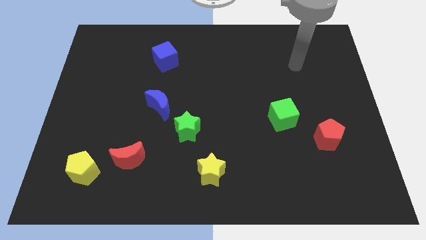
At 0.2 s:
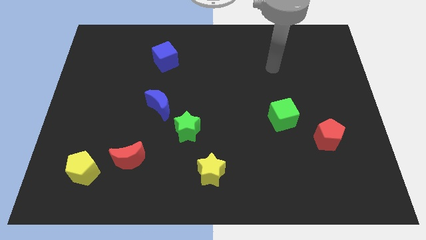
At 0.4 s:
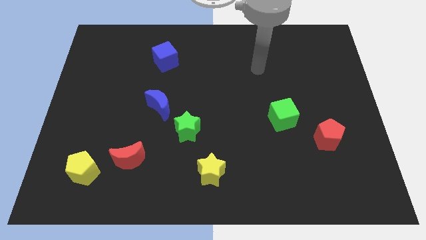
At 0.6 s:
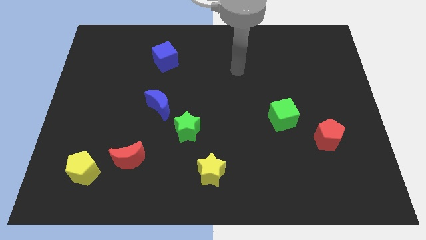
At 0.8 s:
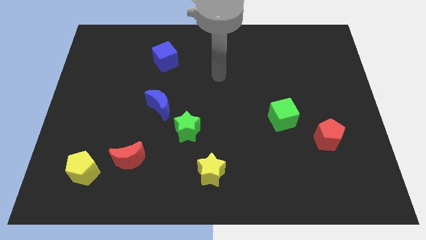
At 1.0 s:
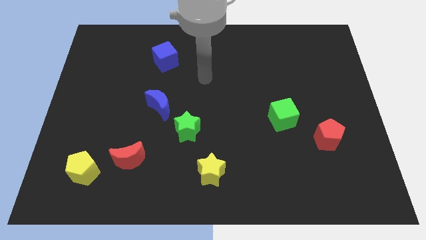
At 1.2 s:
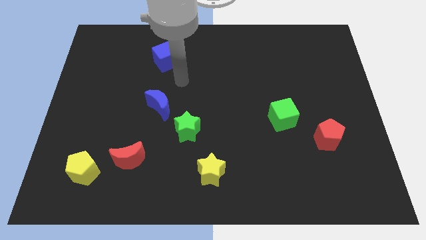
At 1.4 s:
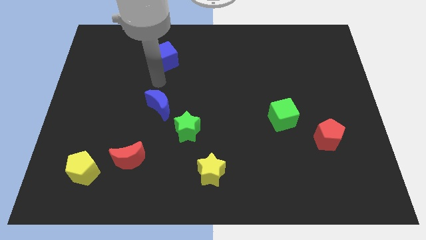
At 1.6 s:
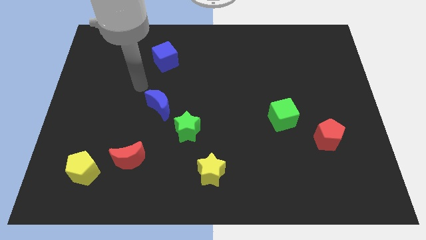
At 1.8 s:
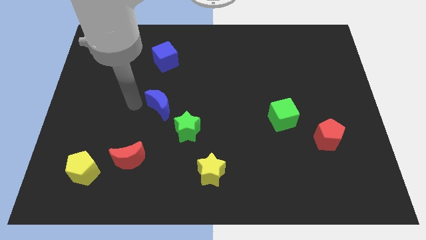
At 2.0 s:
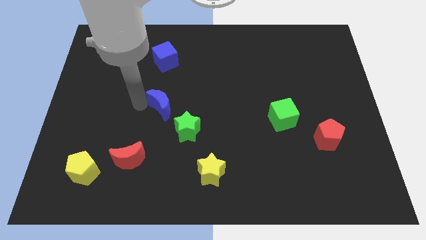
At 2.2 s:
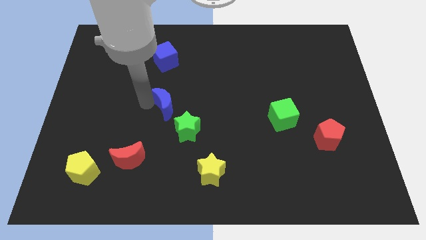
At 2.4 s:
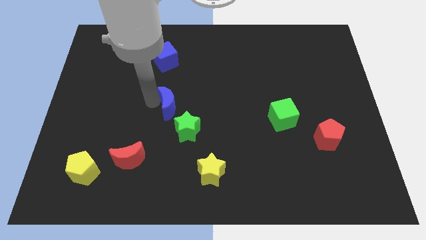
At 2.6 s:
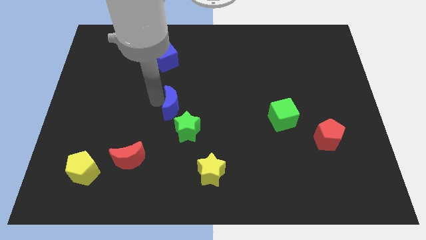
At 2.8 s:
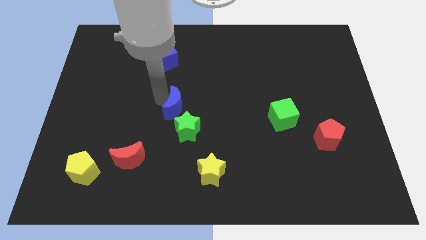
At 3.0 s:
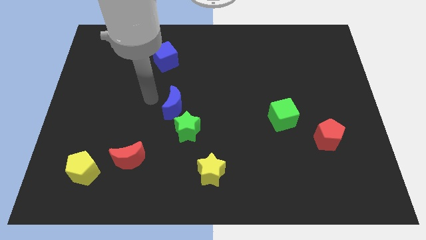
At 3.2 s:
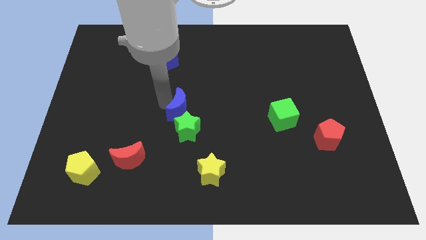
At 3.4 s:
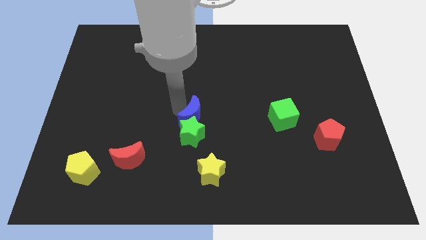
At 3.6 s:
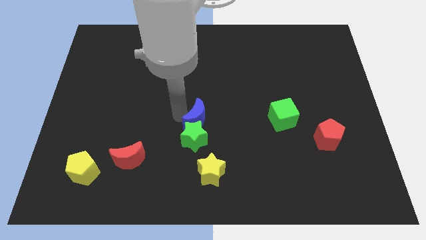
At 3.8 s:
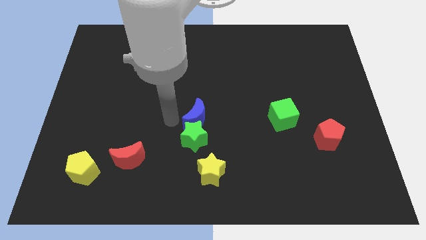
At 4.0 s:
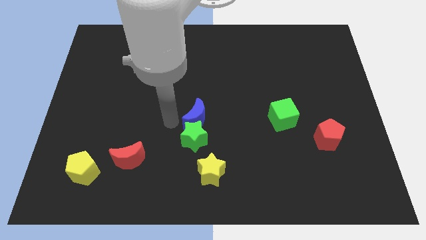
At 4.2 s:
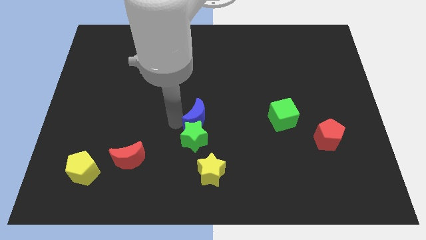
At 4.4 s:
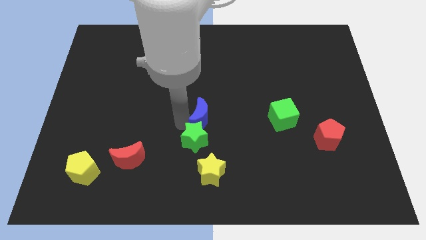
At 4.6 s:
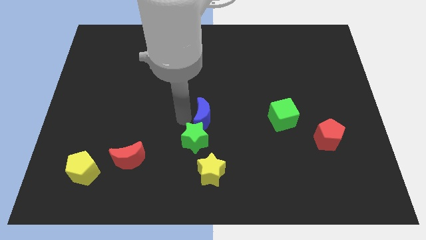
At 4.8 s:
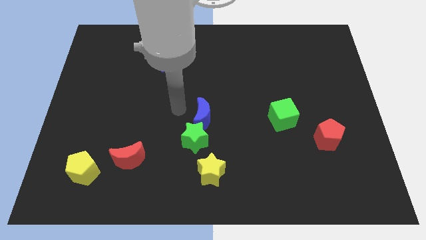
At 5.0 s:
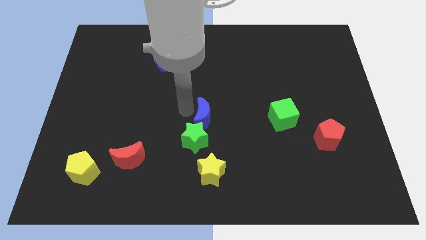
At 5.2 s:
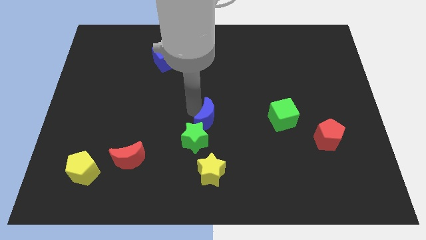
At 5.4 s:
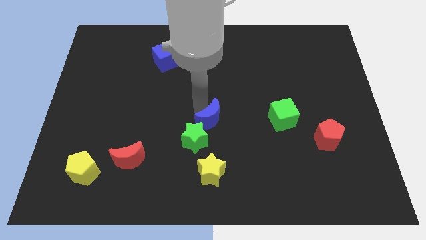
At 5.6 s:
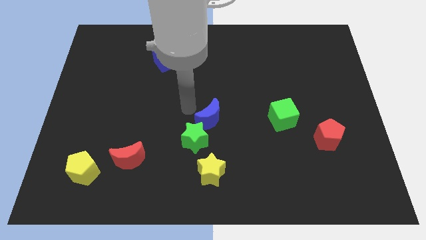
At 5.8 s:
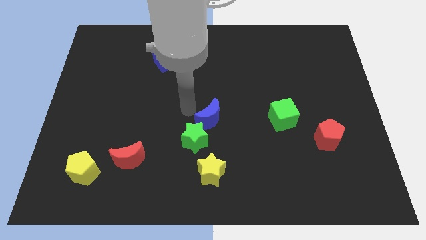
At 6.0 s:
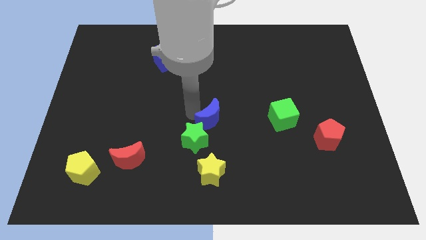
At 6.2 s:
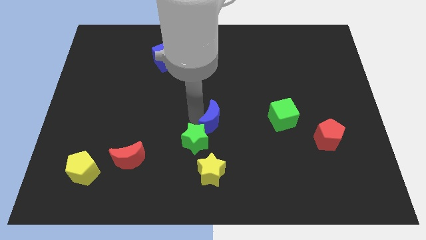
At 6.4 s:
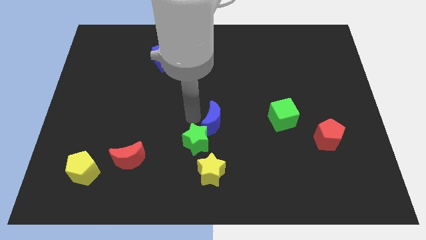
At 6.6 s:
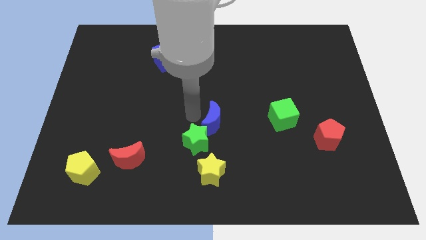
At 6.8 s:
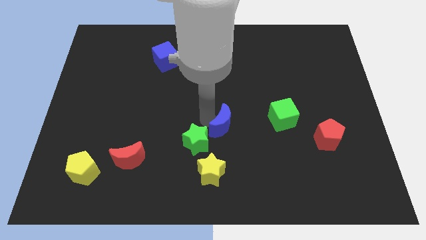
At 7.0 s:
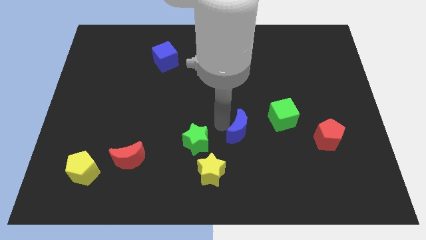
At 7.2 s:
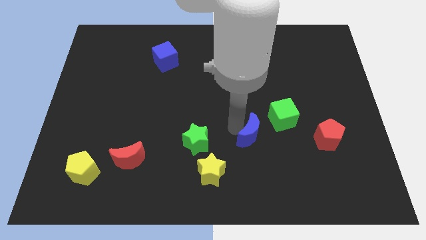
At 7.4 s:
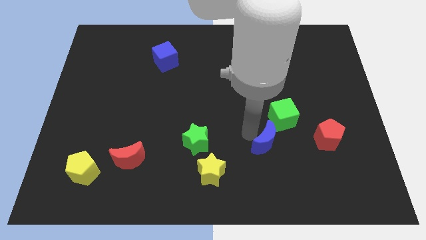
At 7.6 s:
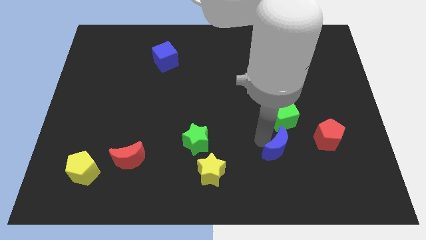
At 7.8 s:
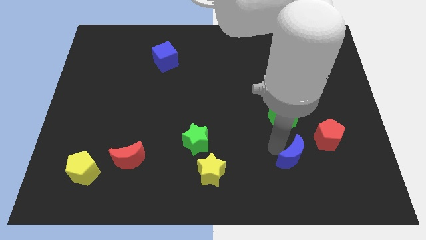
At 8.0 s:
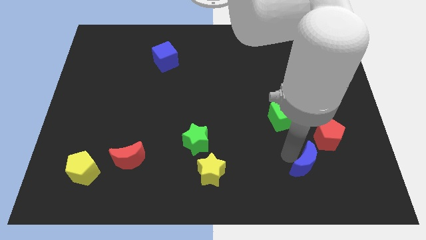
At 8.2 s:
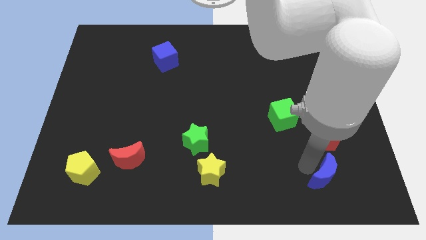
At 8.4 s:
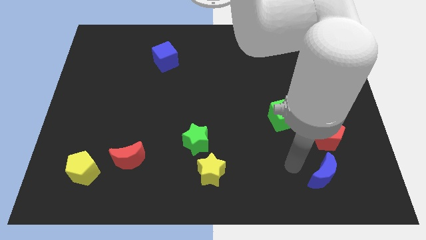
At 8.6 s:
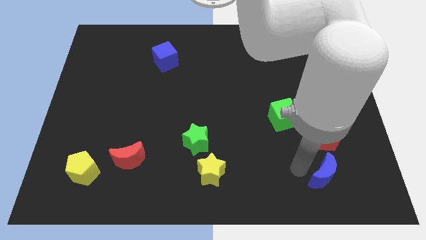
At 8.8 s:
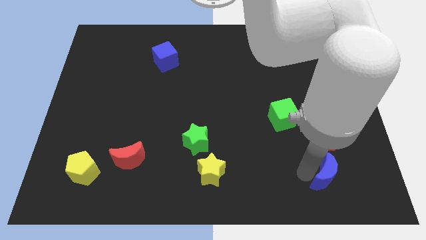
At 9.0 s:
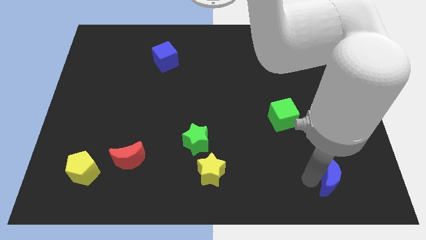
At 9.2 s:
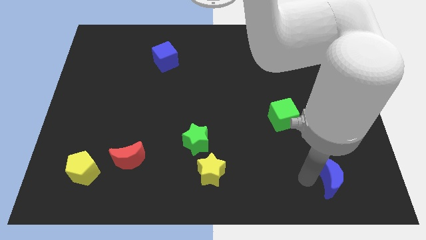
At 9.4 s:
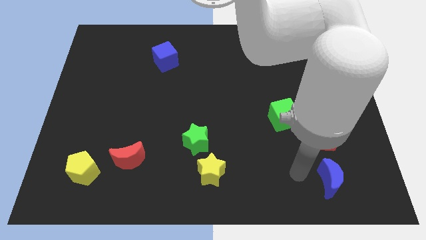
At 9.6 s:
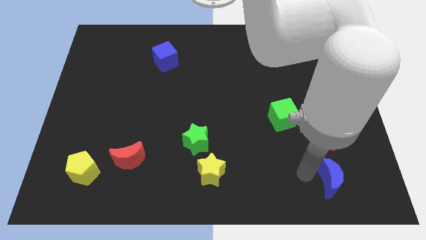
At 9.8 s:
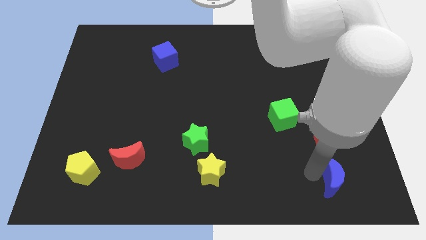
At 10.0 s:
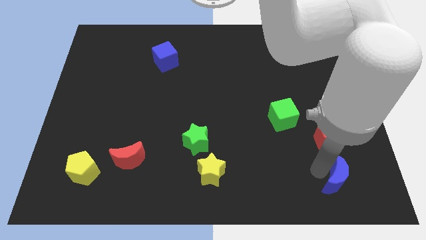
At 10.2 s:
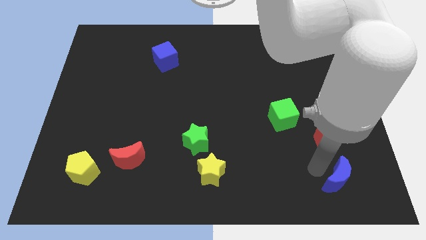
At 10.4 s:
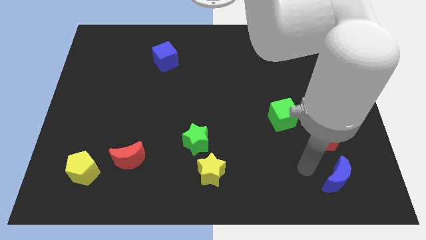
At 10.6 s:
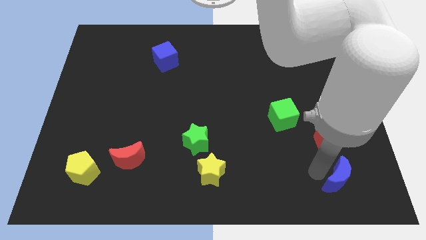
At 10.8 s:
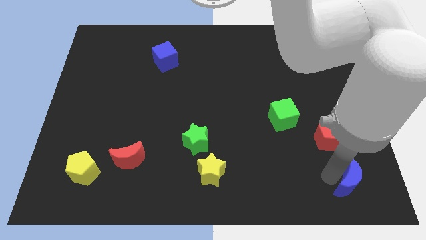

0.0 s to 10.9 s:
put the blue moon to the bottom right corner

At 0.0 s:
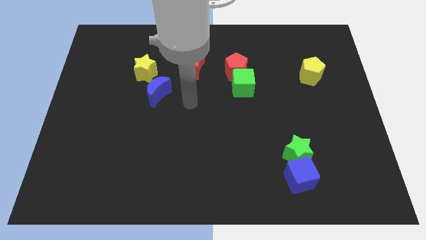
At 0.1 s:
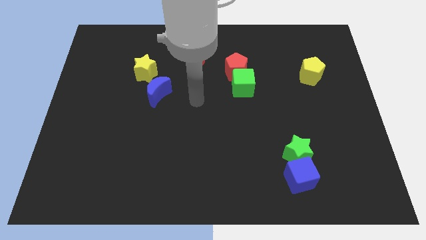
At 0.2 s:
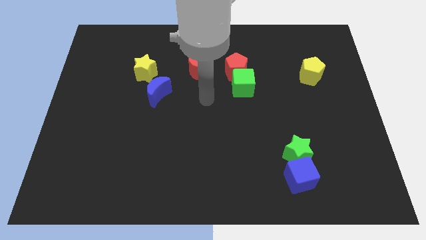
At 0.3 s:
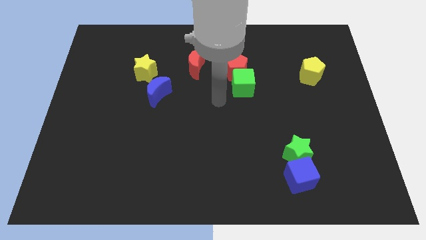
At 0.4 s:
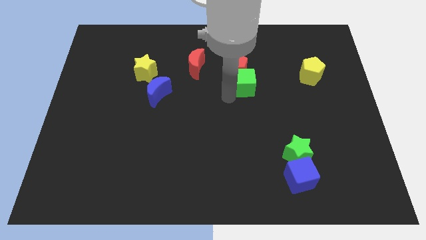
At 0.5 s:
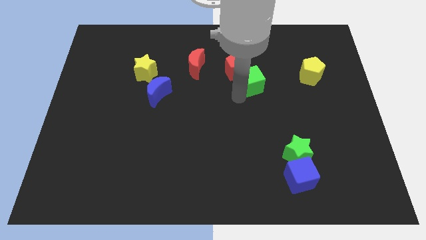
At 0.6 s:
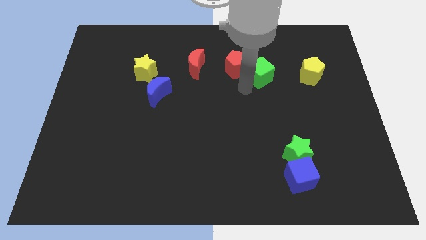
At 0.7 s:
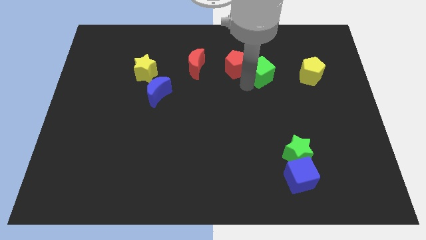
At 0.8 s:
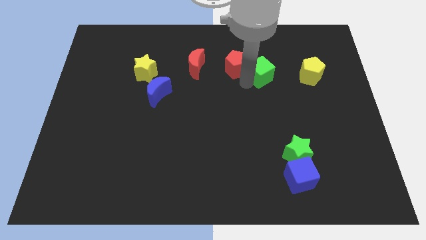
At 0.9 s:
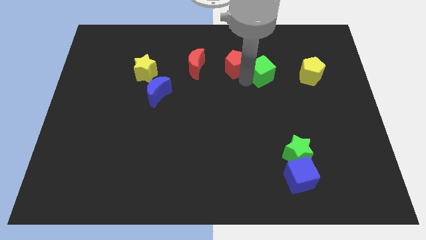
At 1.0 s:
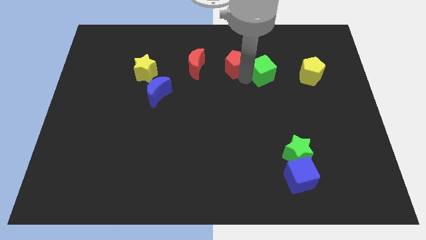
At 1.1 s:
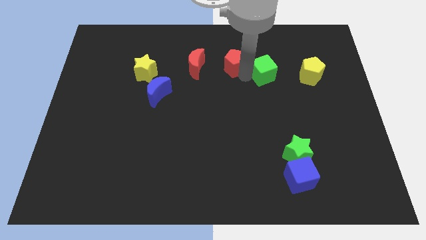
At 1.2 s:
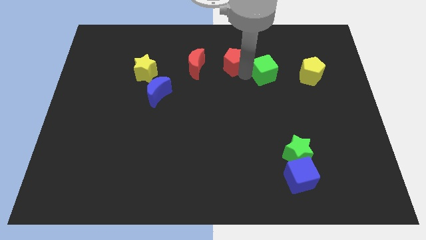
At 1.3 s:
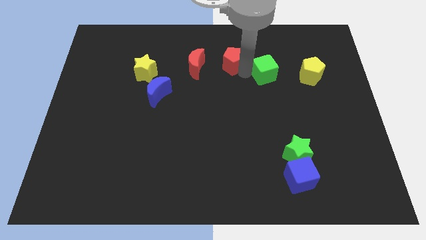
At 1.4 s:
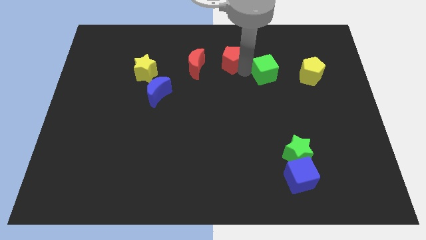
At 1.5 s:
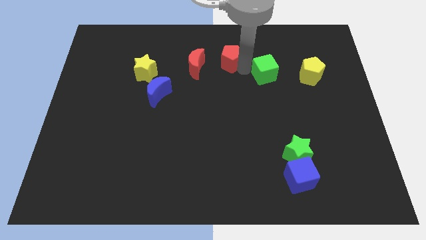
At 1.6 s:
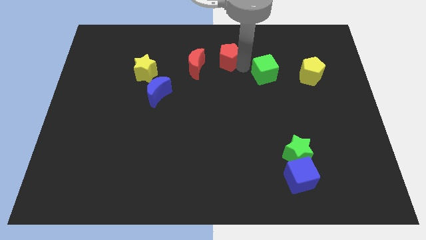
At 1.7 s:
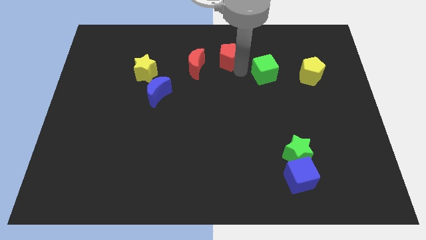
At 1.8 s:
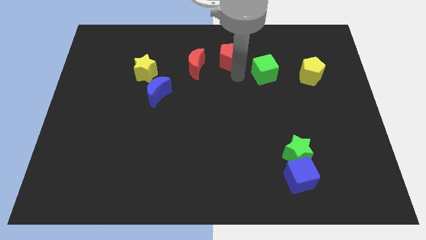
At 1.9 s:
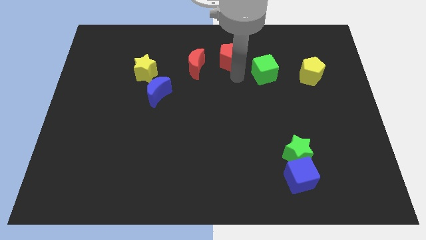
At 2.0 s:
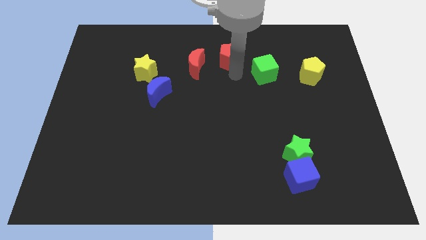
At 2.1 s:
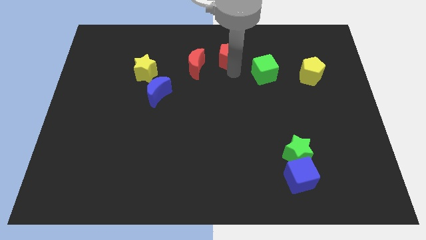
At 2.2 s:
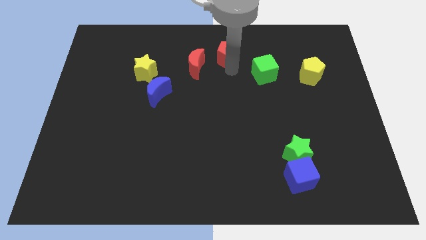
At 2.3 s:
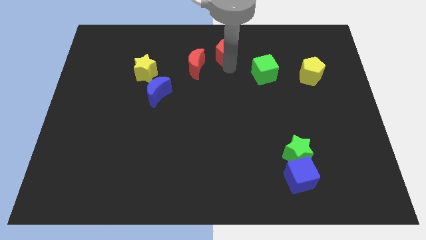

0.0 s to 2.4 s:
put the red pentagon to the top
